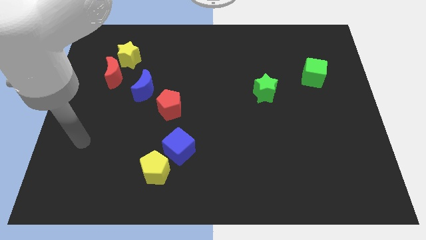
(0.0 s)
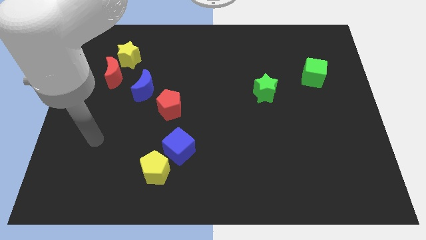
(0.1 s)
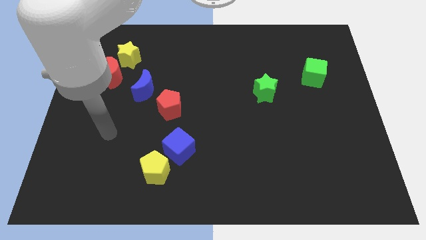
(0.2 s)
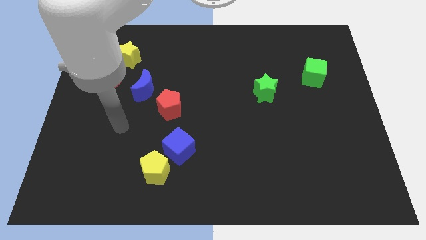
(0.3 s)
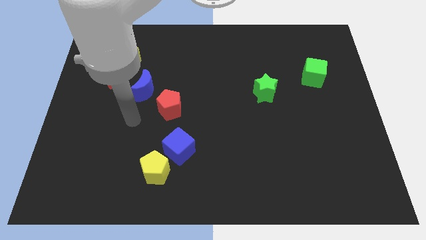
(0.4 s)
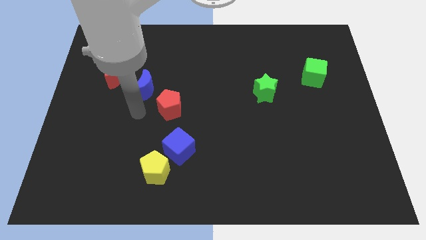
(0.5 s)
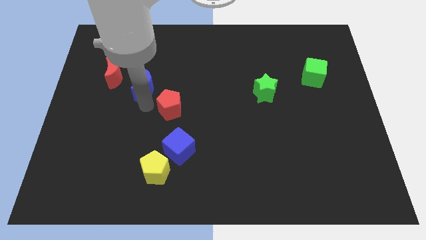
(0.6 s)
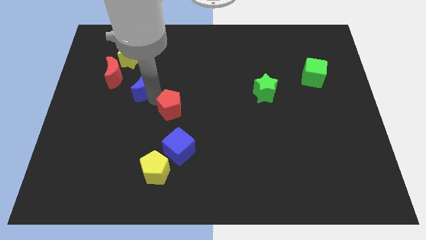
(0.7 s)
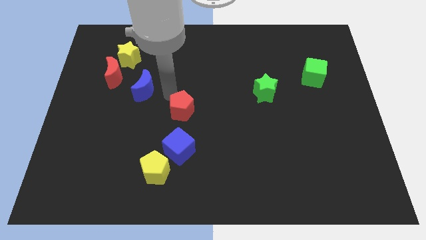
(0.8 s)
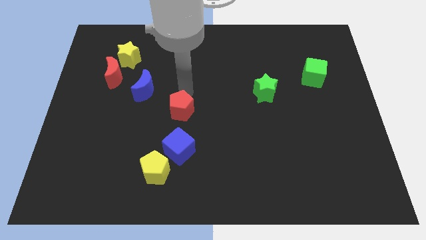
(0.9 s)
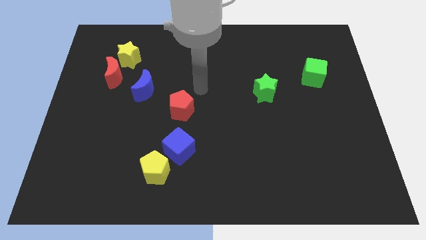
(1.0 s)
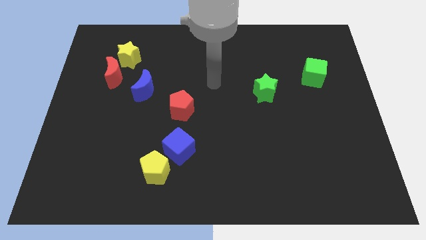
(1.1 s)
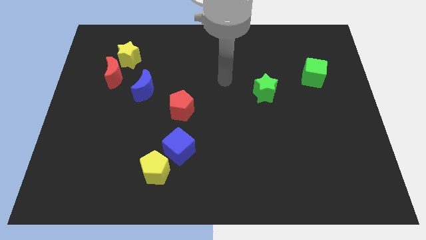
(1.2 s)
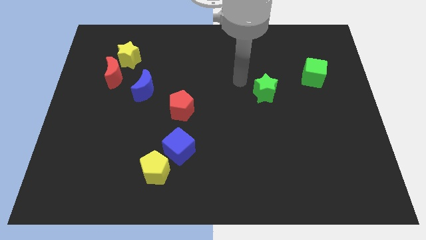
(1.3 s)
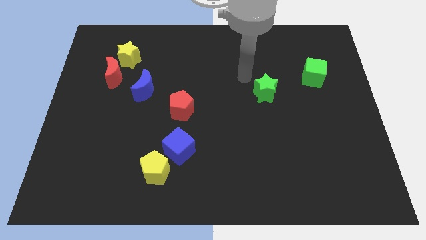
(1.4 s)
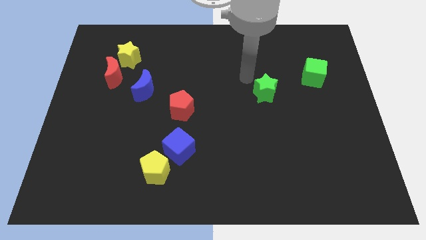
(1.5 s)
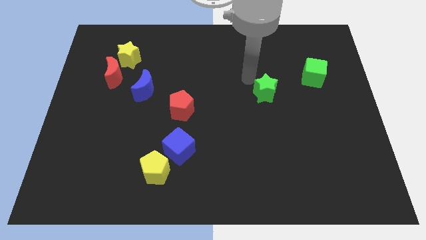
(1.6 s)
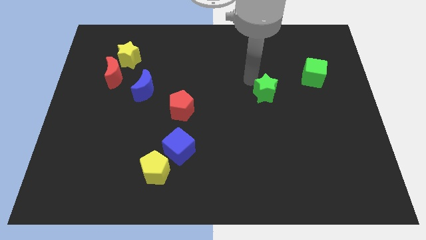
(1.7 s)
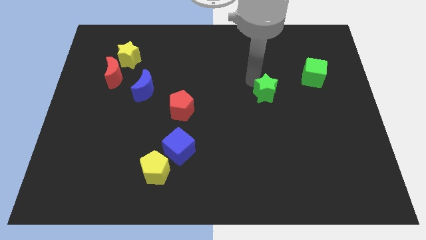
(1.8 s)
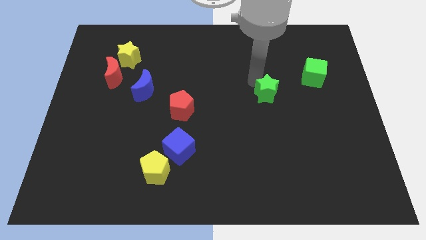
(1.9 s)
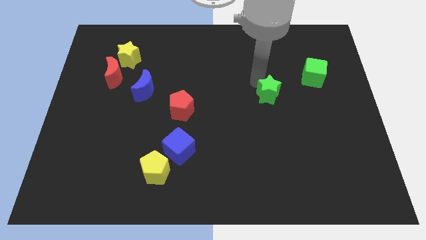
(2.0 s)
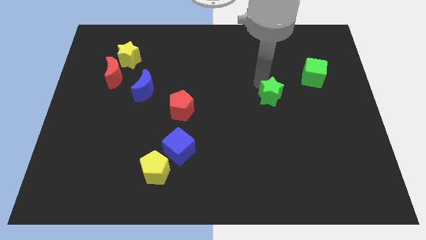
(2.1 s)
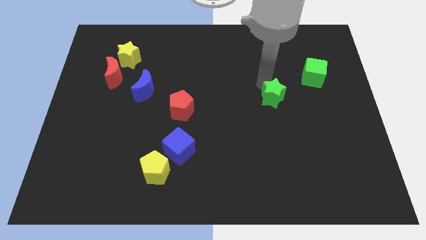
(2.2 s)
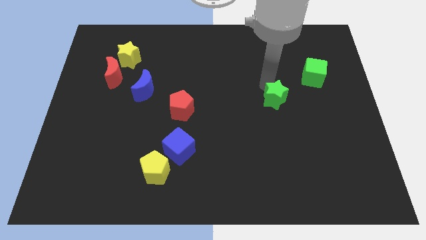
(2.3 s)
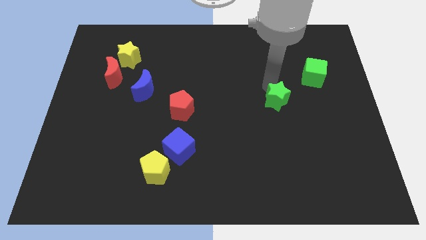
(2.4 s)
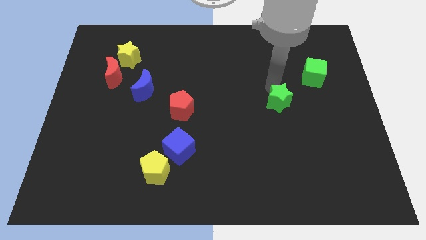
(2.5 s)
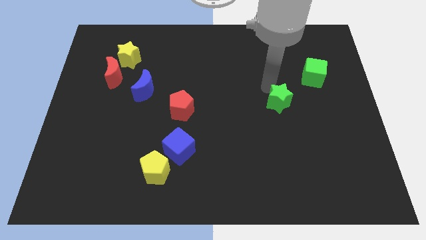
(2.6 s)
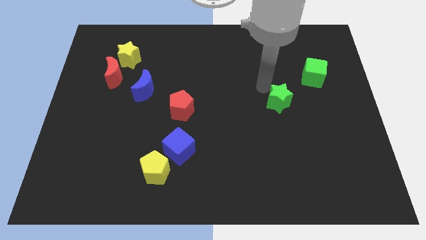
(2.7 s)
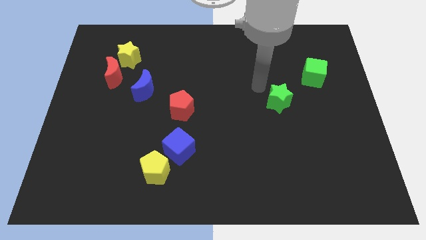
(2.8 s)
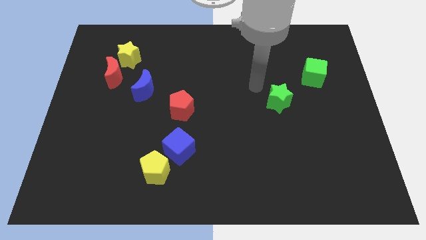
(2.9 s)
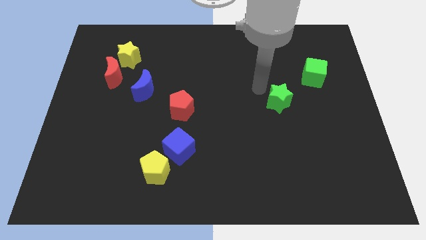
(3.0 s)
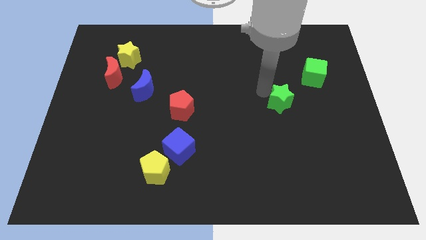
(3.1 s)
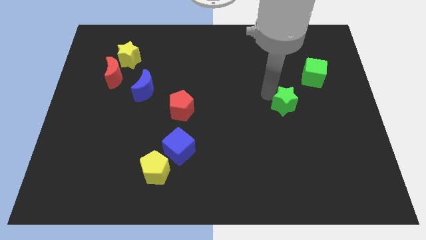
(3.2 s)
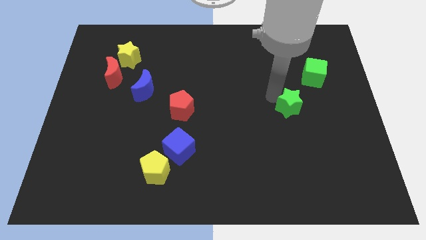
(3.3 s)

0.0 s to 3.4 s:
push the green star down and to the right diagonally slightly

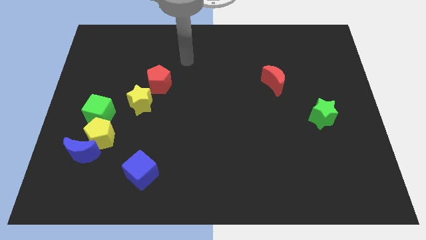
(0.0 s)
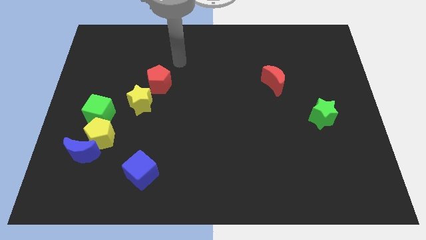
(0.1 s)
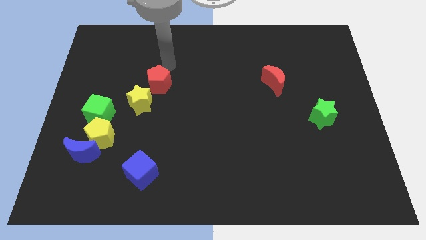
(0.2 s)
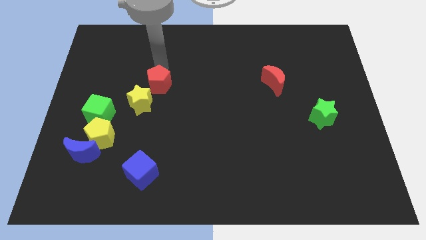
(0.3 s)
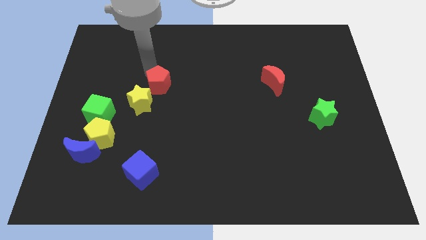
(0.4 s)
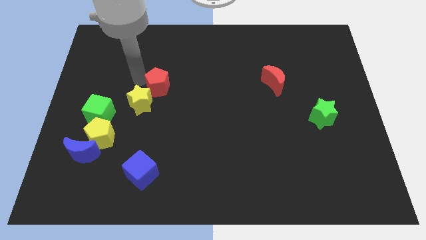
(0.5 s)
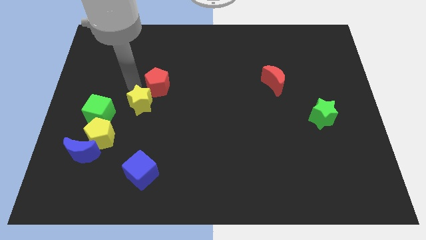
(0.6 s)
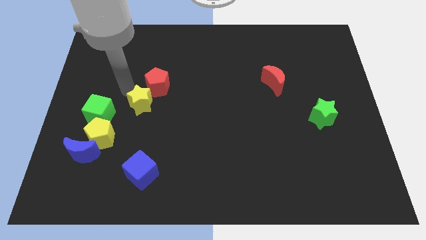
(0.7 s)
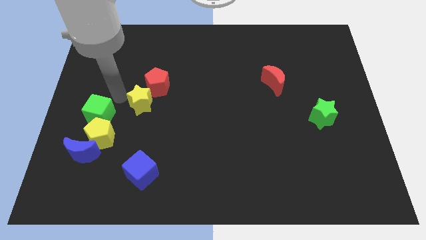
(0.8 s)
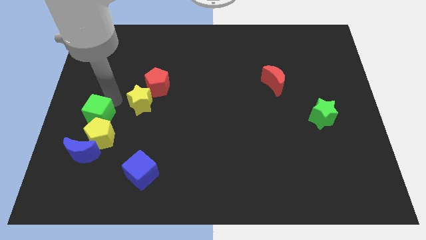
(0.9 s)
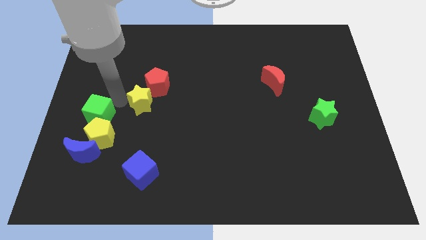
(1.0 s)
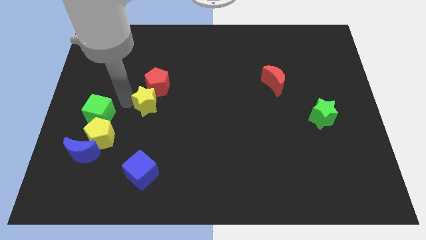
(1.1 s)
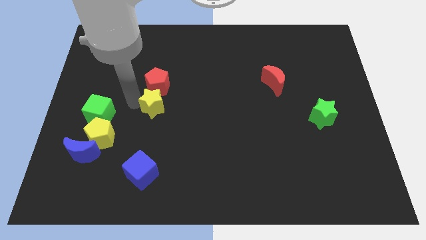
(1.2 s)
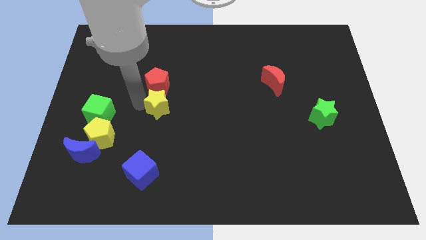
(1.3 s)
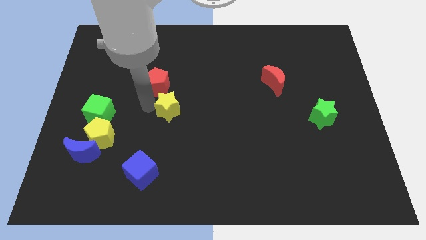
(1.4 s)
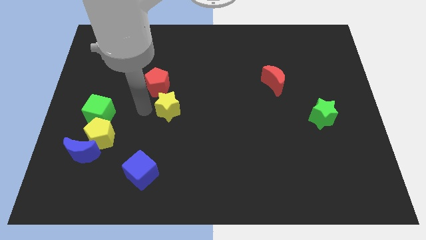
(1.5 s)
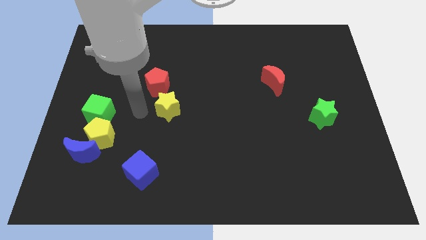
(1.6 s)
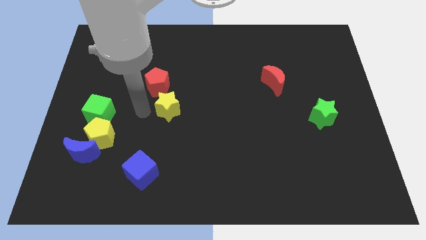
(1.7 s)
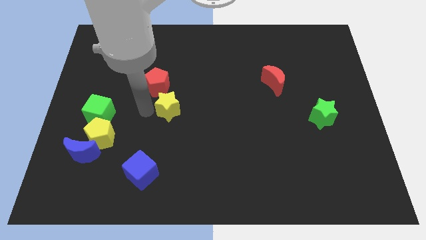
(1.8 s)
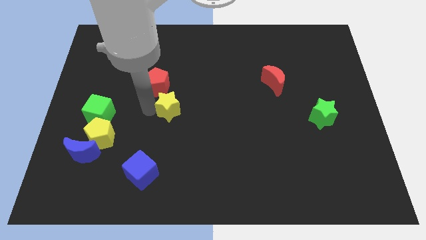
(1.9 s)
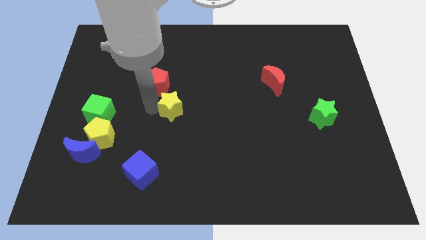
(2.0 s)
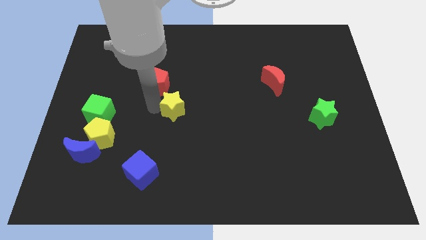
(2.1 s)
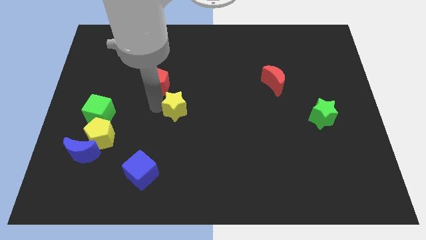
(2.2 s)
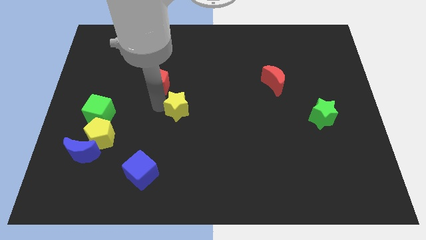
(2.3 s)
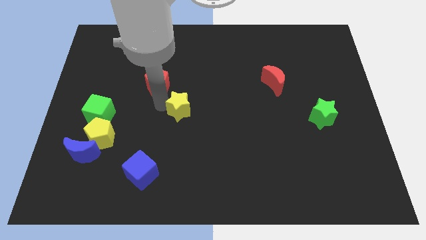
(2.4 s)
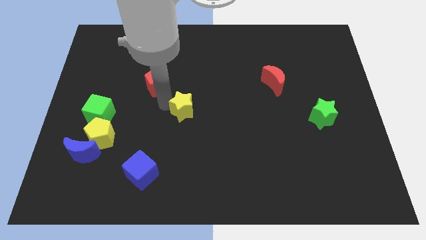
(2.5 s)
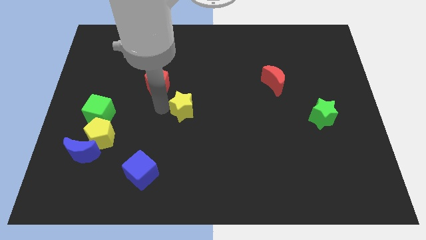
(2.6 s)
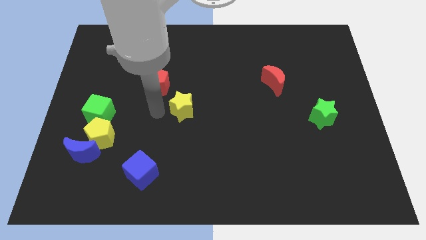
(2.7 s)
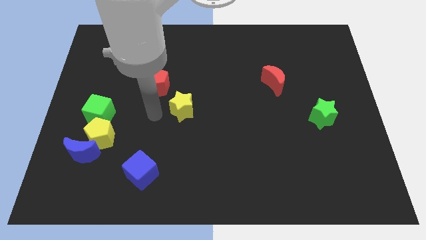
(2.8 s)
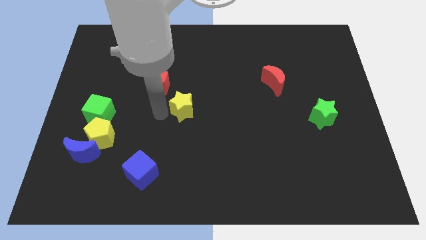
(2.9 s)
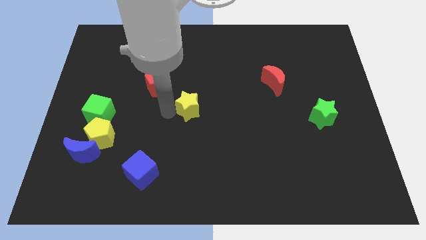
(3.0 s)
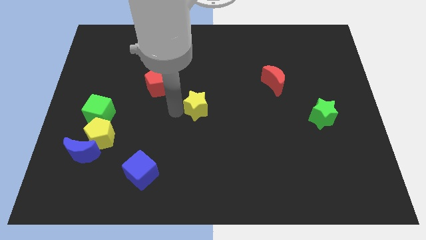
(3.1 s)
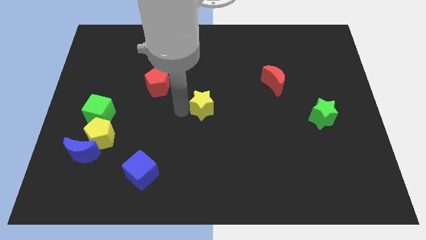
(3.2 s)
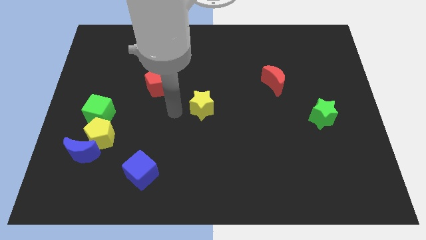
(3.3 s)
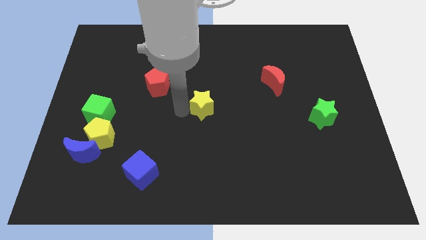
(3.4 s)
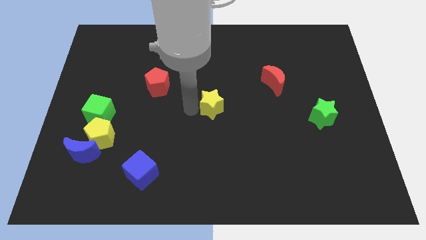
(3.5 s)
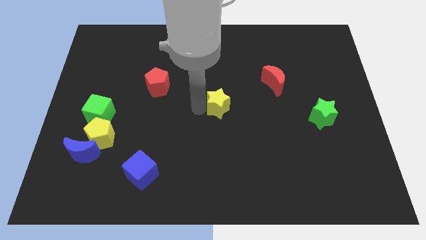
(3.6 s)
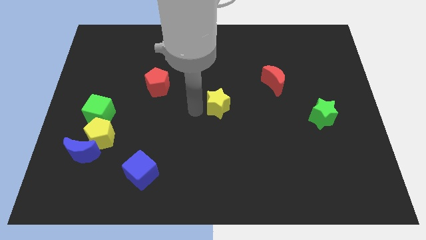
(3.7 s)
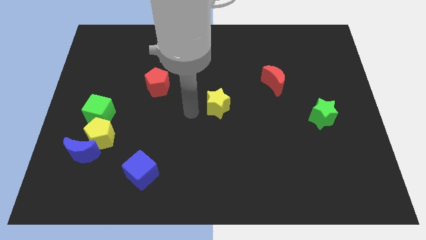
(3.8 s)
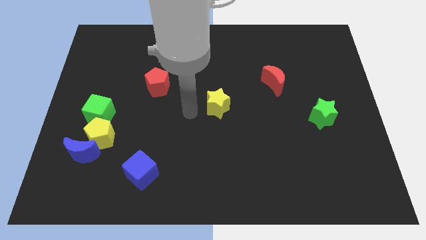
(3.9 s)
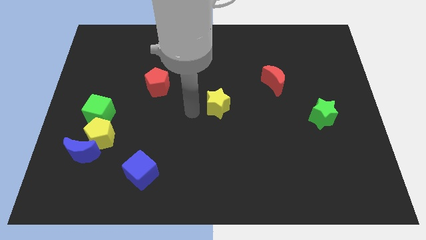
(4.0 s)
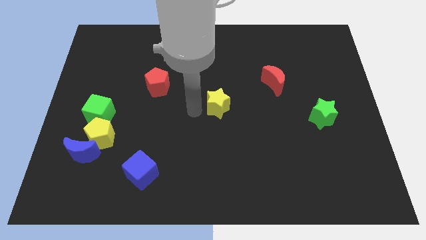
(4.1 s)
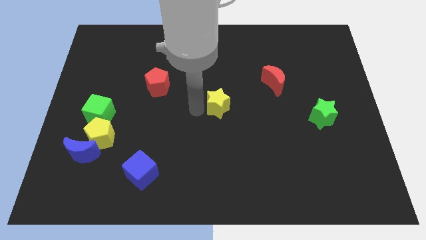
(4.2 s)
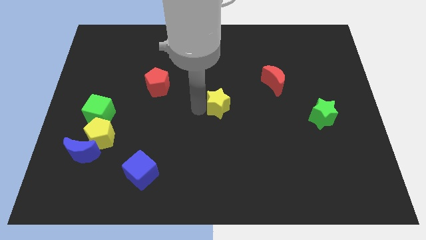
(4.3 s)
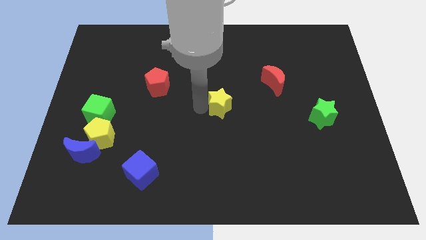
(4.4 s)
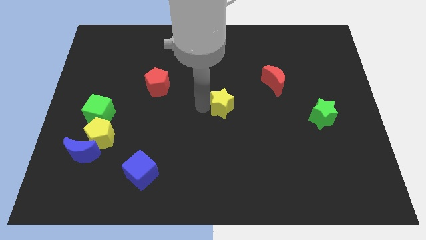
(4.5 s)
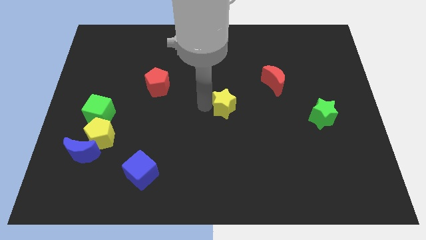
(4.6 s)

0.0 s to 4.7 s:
move the yellow star to the right

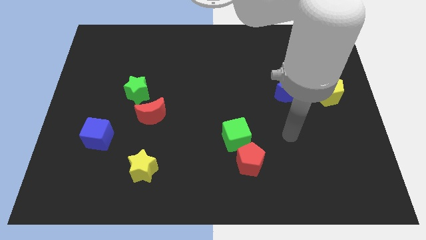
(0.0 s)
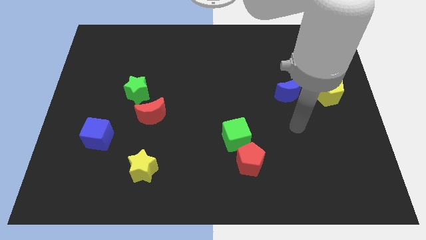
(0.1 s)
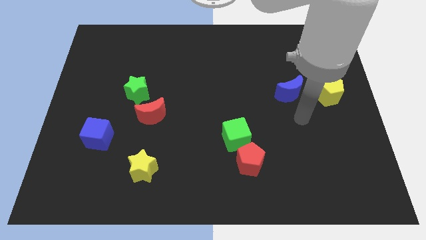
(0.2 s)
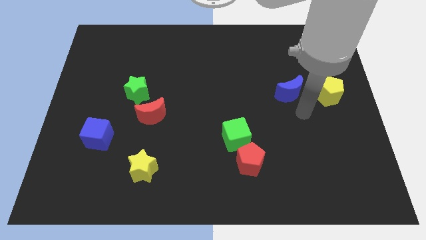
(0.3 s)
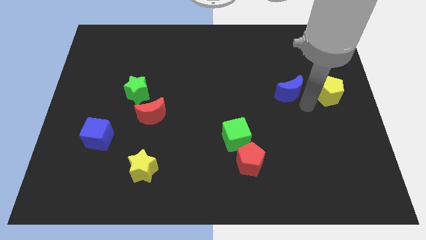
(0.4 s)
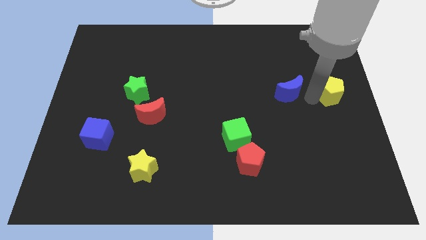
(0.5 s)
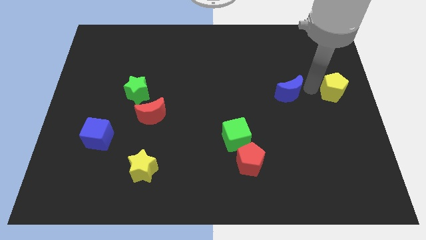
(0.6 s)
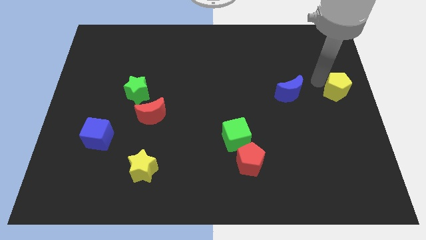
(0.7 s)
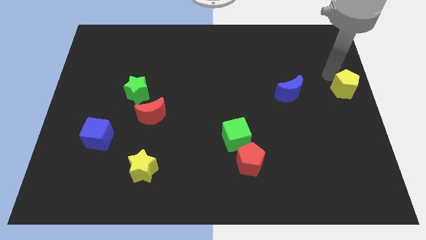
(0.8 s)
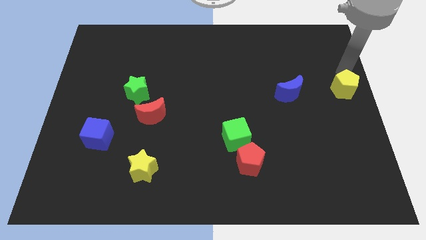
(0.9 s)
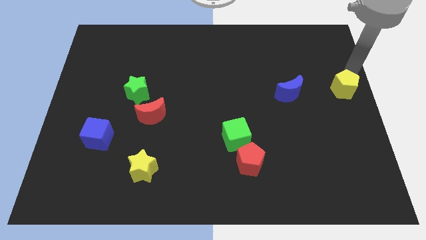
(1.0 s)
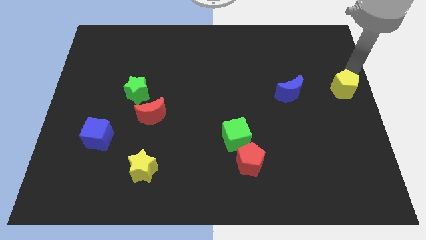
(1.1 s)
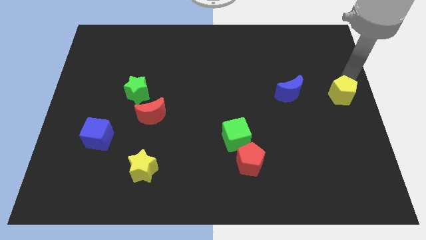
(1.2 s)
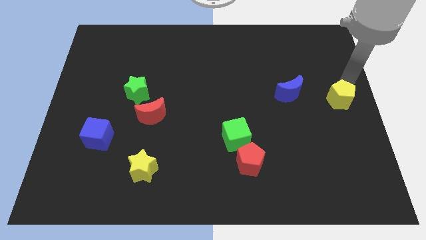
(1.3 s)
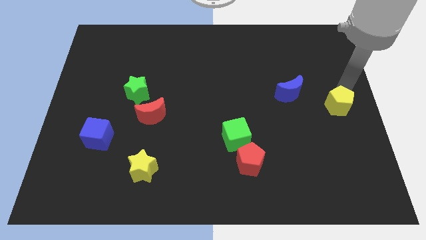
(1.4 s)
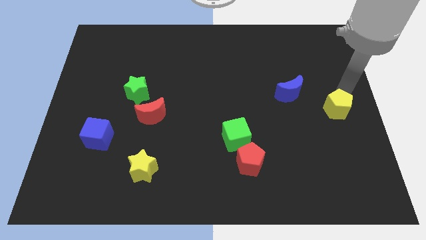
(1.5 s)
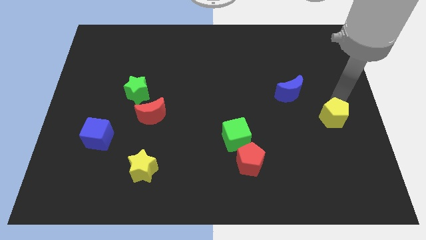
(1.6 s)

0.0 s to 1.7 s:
slide the yellow pentagon down a bit
